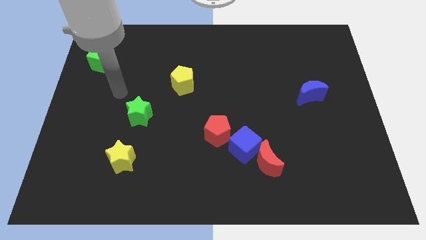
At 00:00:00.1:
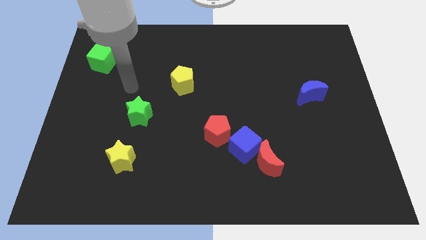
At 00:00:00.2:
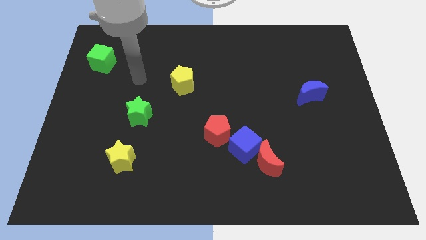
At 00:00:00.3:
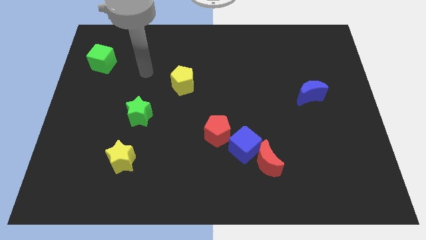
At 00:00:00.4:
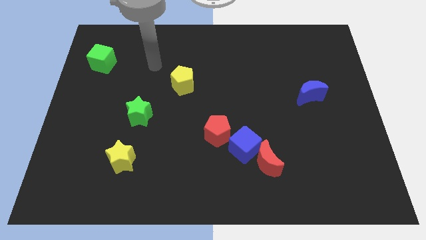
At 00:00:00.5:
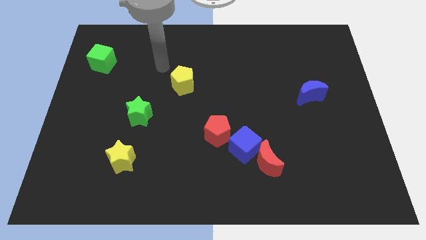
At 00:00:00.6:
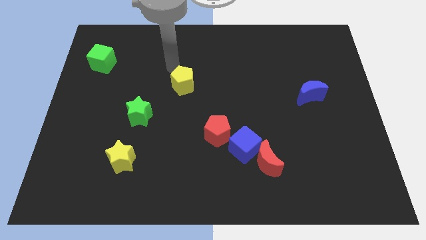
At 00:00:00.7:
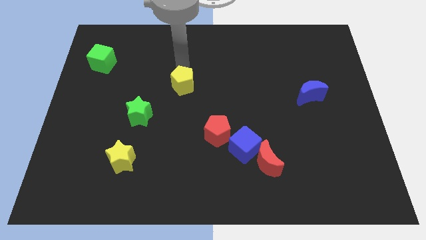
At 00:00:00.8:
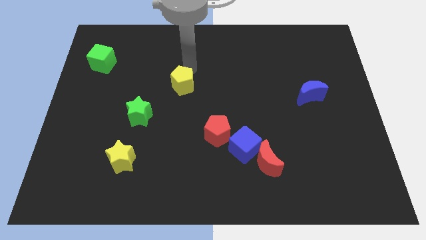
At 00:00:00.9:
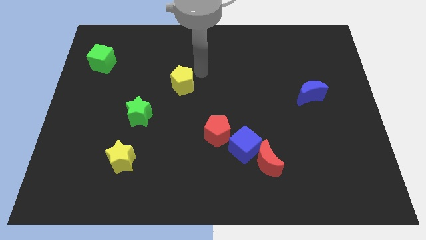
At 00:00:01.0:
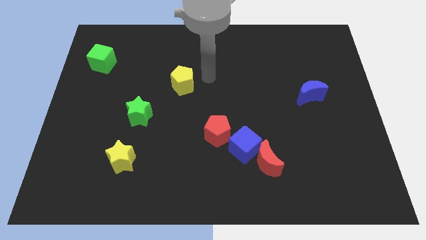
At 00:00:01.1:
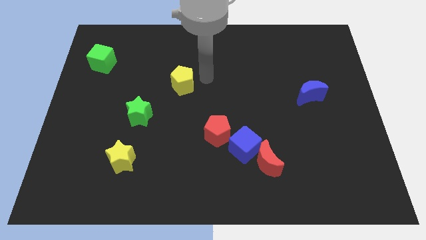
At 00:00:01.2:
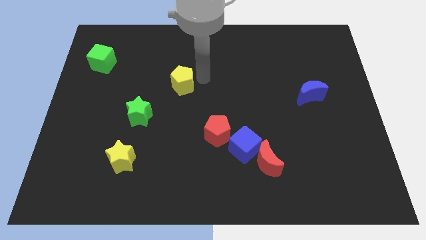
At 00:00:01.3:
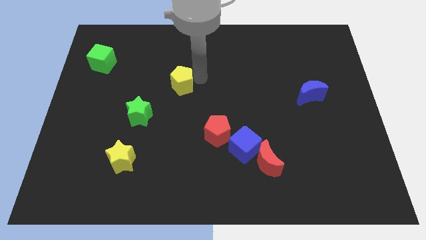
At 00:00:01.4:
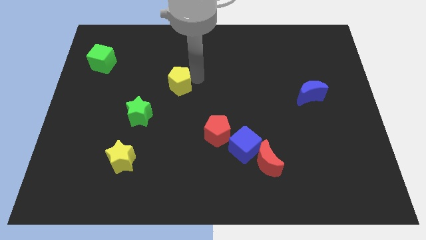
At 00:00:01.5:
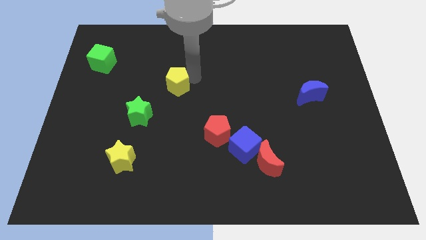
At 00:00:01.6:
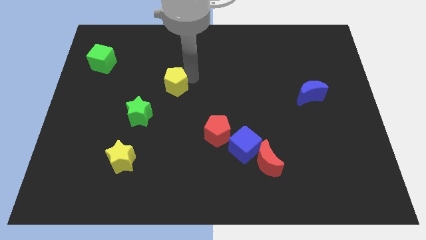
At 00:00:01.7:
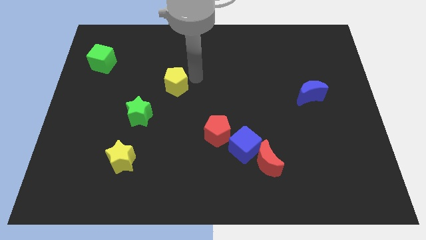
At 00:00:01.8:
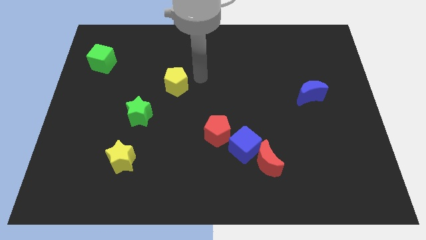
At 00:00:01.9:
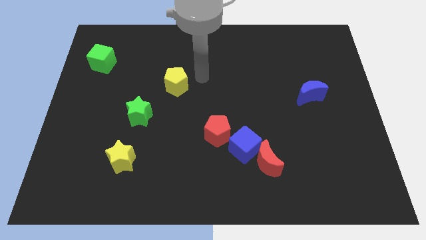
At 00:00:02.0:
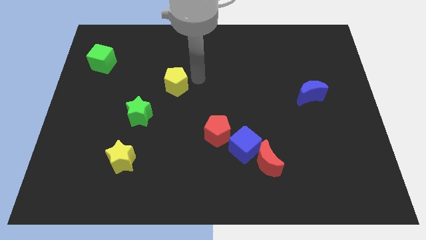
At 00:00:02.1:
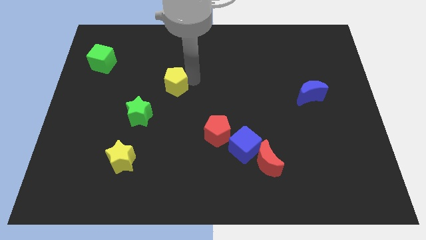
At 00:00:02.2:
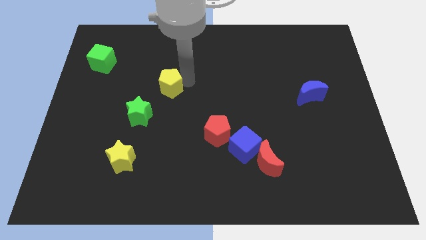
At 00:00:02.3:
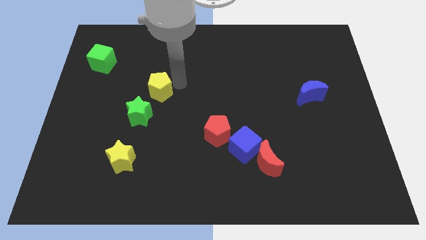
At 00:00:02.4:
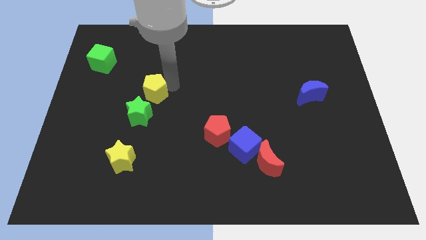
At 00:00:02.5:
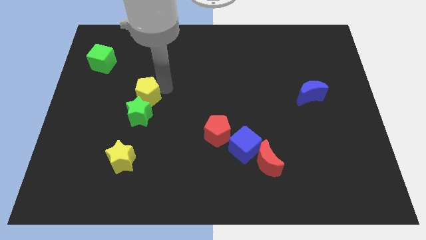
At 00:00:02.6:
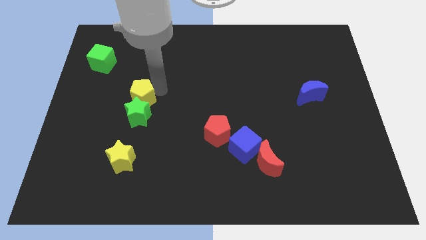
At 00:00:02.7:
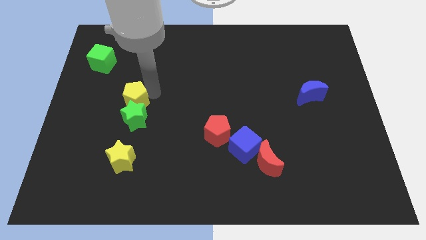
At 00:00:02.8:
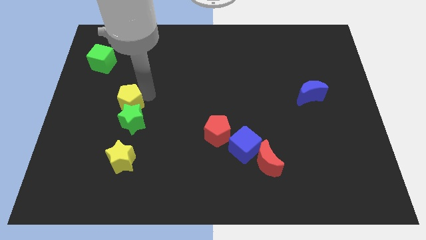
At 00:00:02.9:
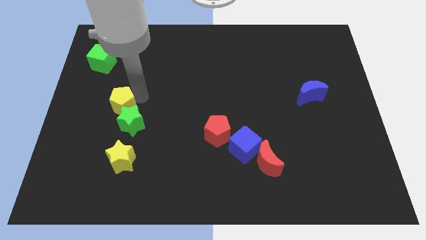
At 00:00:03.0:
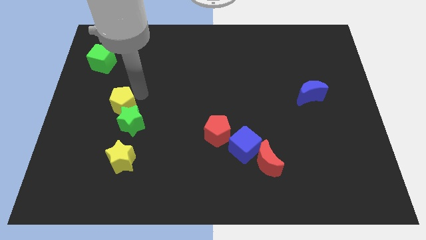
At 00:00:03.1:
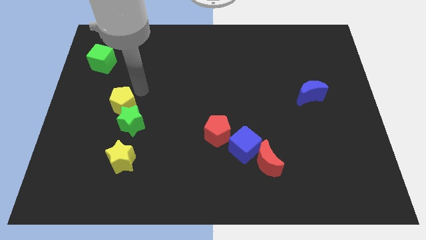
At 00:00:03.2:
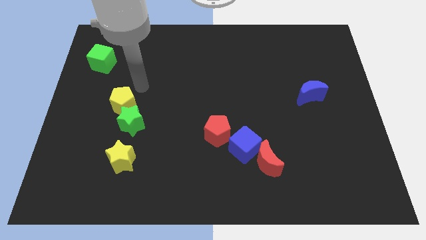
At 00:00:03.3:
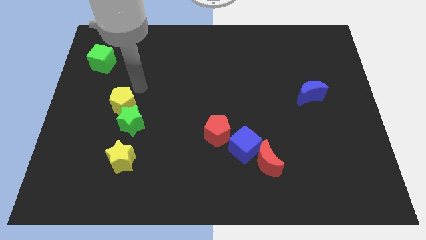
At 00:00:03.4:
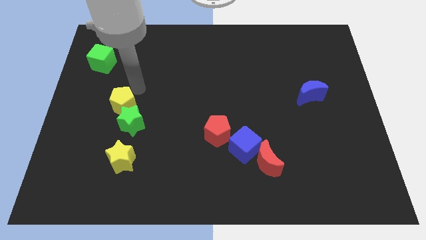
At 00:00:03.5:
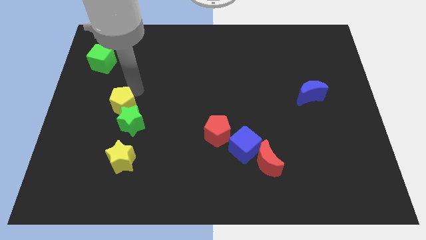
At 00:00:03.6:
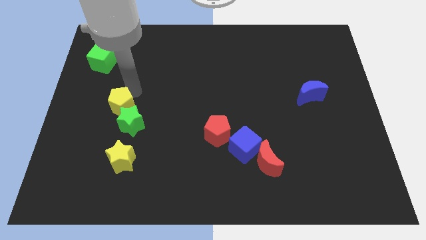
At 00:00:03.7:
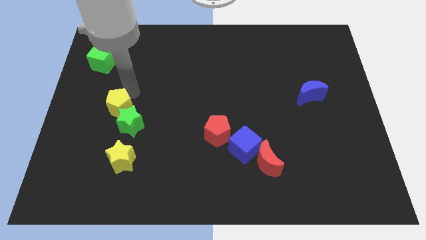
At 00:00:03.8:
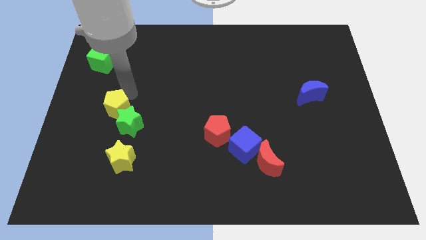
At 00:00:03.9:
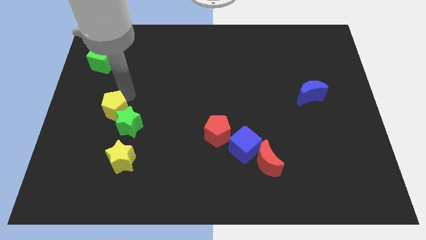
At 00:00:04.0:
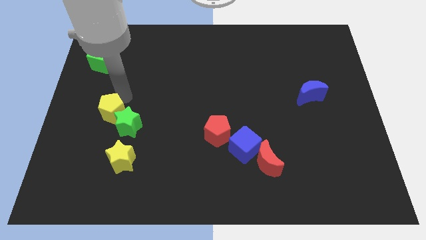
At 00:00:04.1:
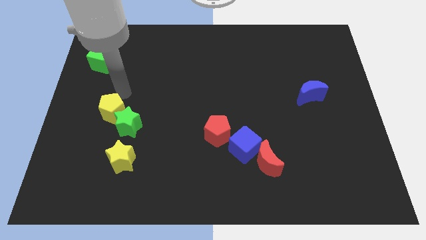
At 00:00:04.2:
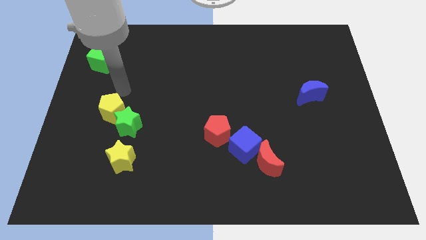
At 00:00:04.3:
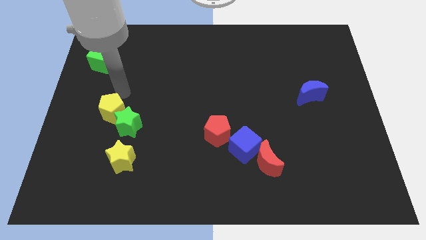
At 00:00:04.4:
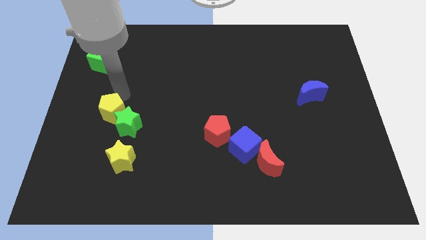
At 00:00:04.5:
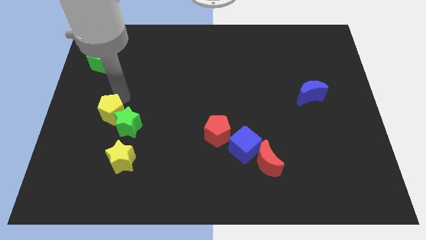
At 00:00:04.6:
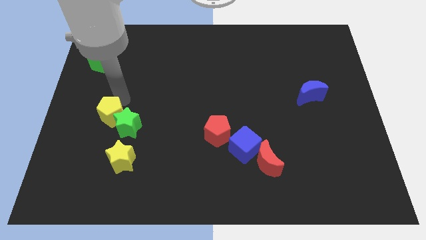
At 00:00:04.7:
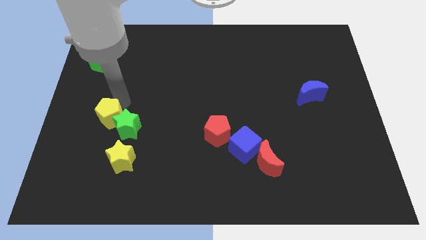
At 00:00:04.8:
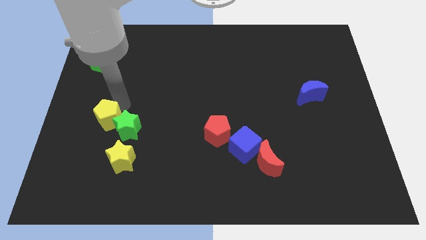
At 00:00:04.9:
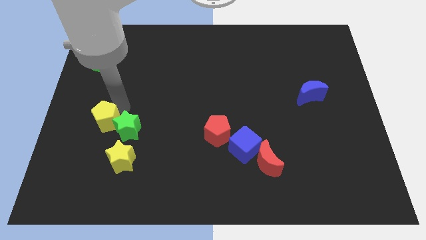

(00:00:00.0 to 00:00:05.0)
push the yellow pentagon to the top left of the yellow star

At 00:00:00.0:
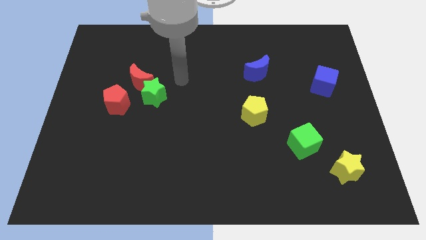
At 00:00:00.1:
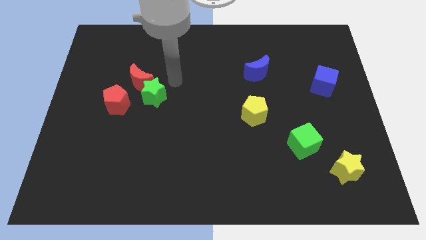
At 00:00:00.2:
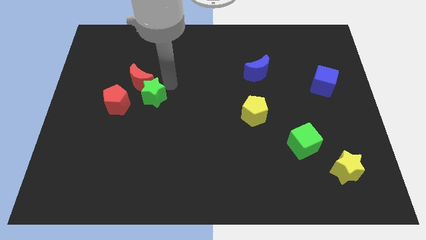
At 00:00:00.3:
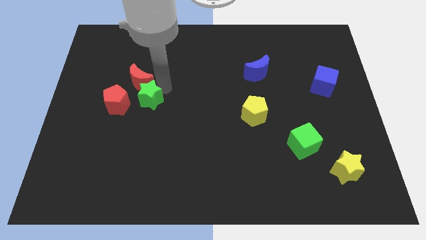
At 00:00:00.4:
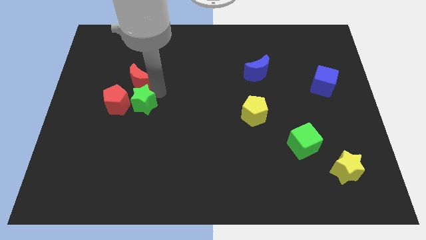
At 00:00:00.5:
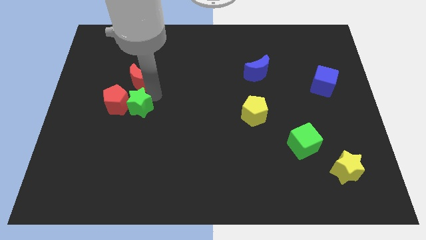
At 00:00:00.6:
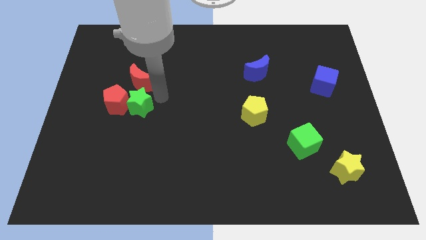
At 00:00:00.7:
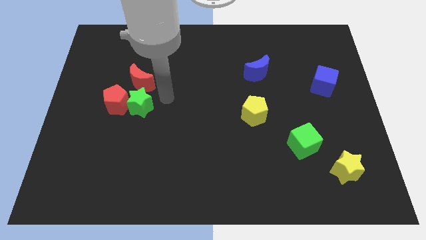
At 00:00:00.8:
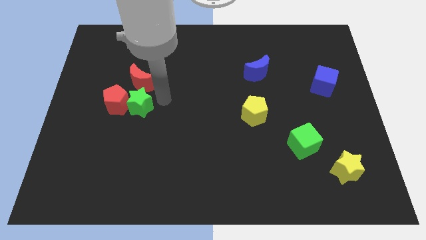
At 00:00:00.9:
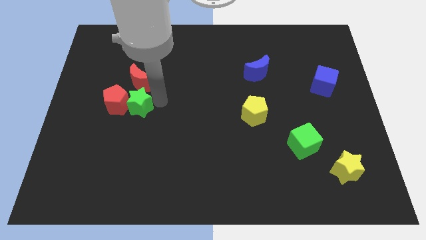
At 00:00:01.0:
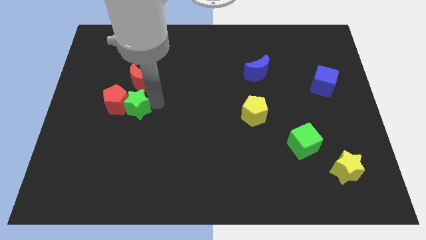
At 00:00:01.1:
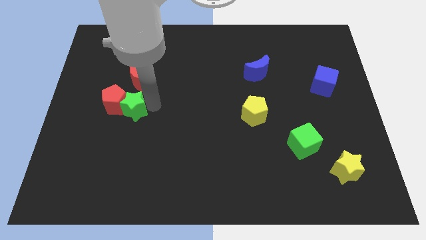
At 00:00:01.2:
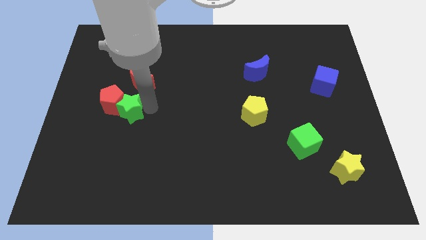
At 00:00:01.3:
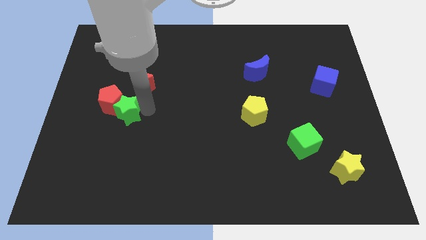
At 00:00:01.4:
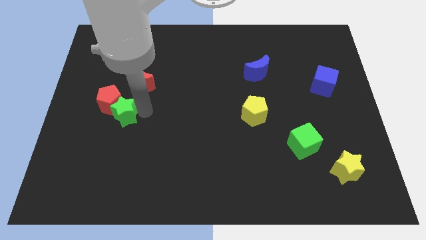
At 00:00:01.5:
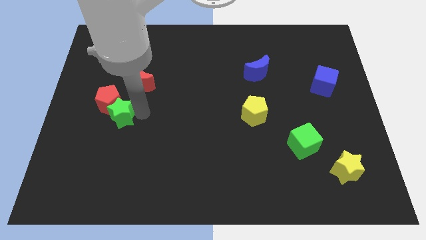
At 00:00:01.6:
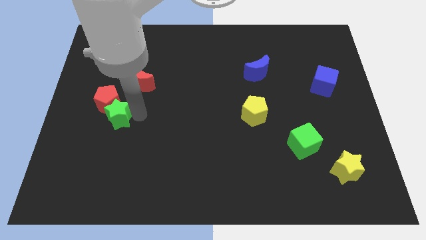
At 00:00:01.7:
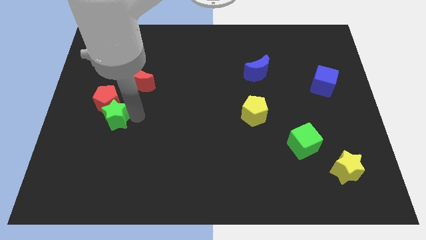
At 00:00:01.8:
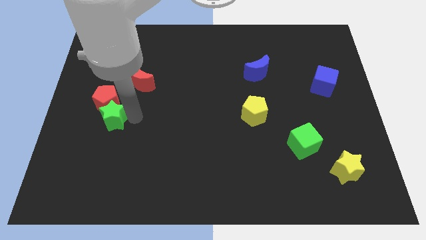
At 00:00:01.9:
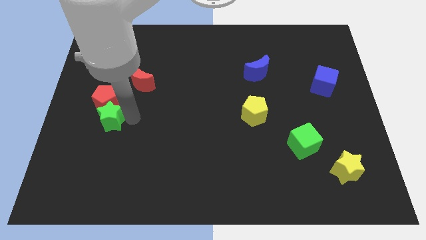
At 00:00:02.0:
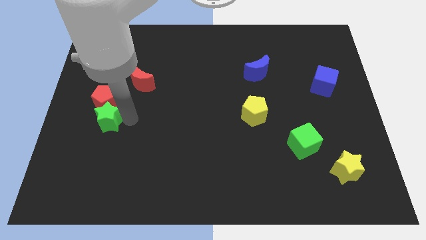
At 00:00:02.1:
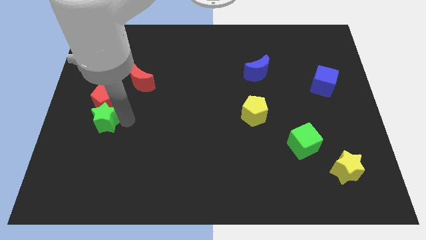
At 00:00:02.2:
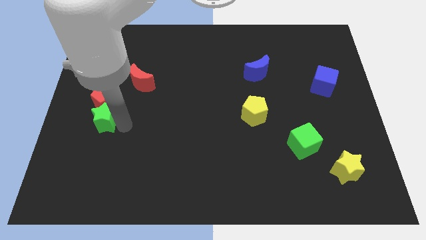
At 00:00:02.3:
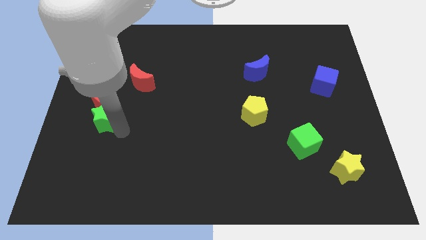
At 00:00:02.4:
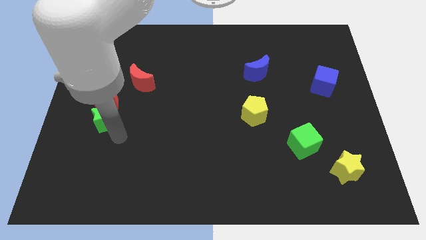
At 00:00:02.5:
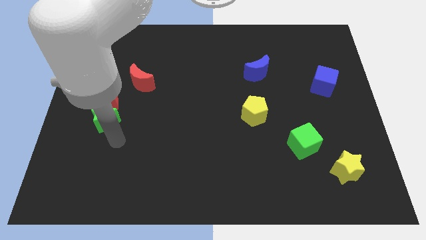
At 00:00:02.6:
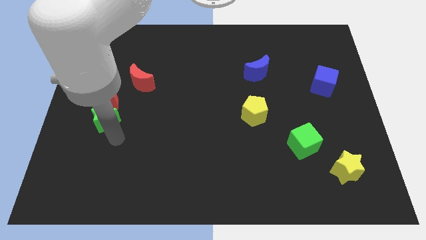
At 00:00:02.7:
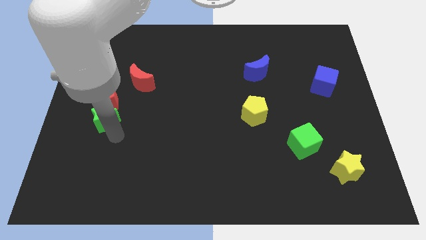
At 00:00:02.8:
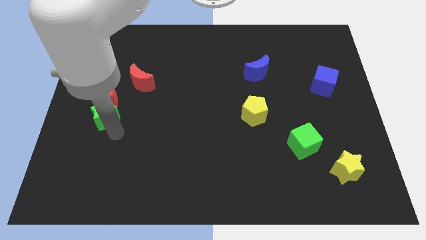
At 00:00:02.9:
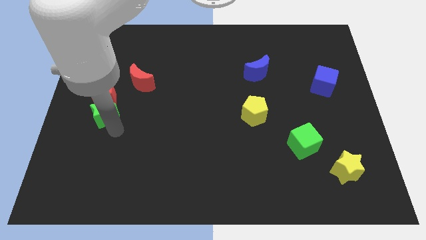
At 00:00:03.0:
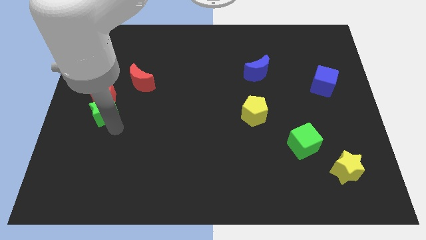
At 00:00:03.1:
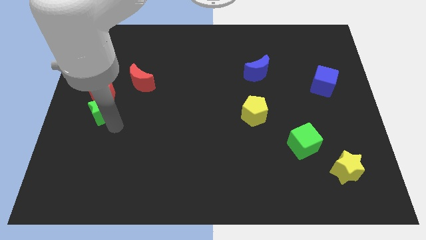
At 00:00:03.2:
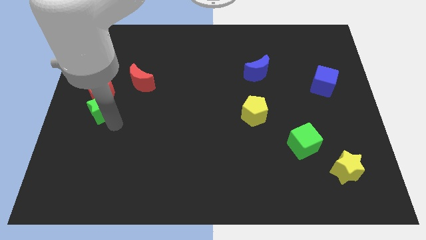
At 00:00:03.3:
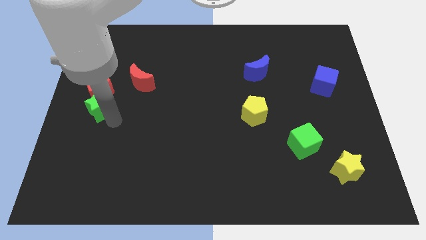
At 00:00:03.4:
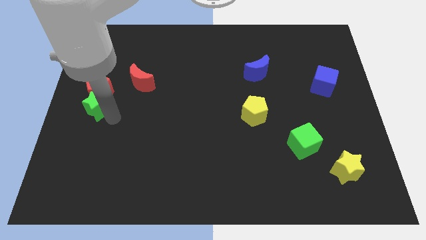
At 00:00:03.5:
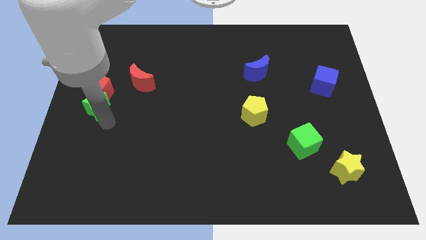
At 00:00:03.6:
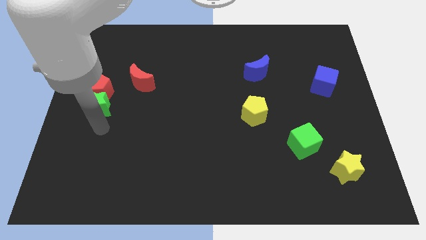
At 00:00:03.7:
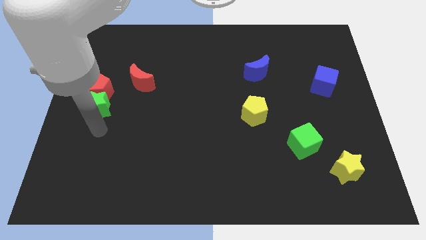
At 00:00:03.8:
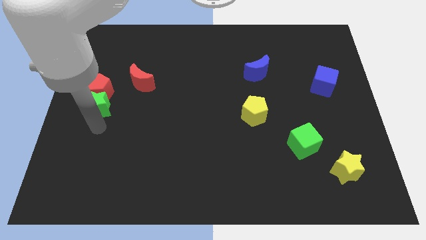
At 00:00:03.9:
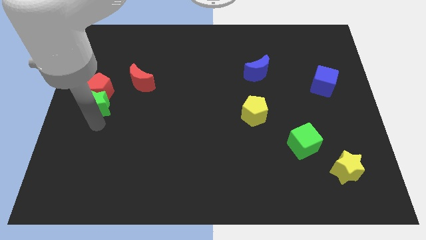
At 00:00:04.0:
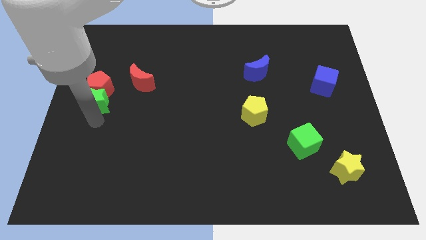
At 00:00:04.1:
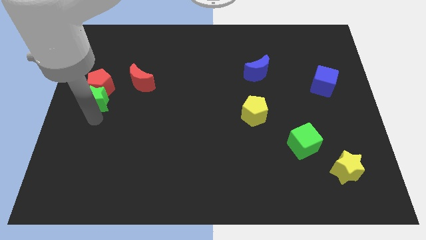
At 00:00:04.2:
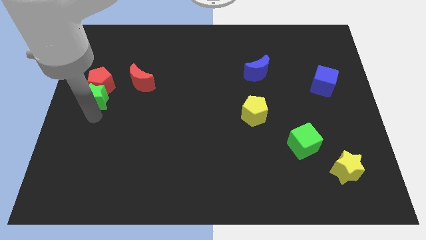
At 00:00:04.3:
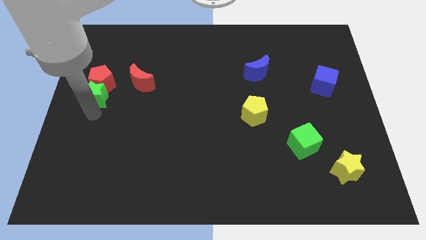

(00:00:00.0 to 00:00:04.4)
slide the green star to the left side of the red moon
